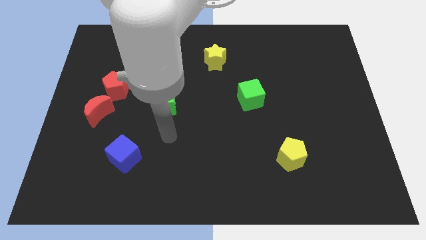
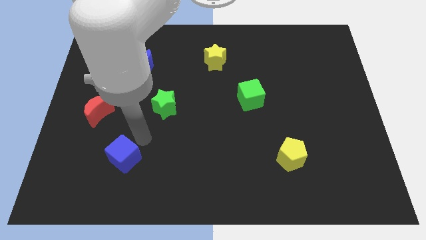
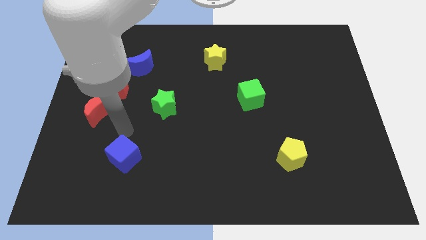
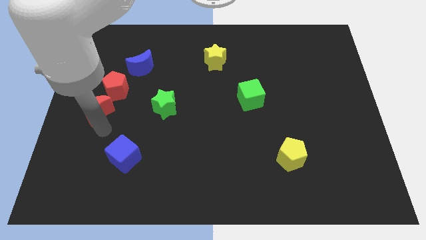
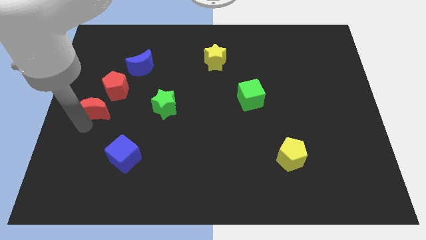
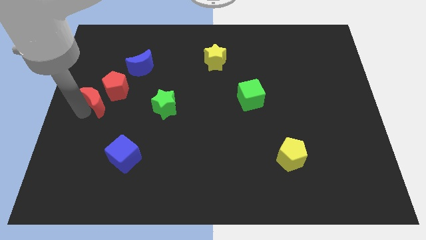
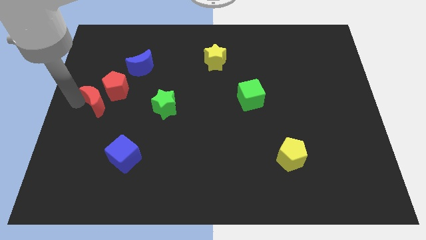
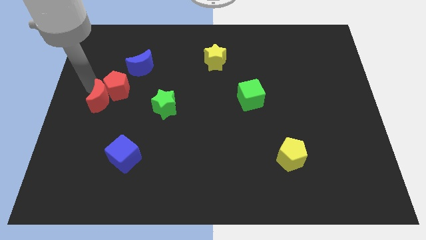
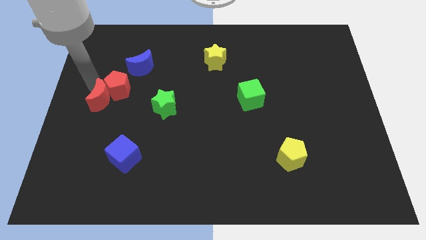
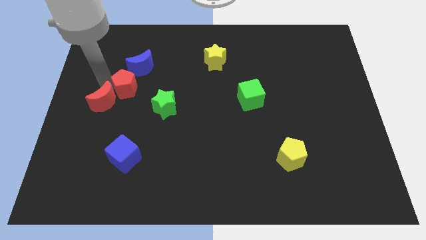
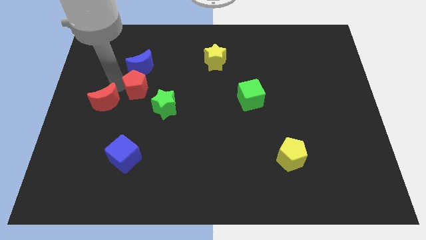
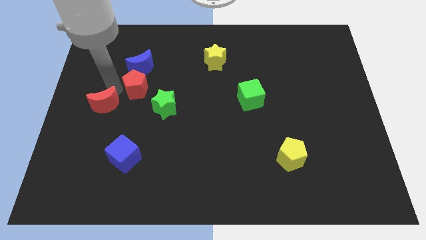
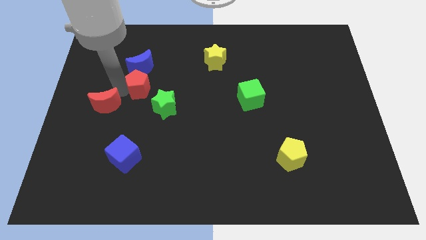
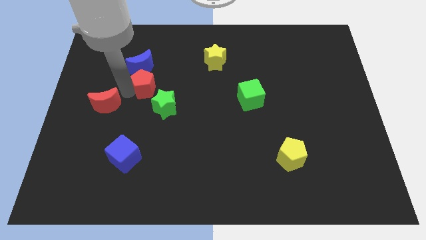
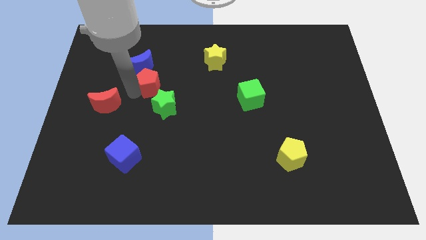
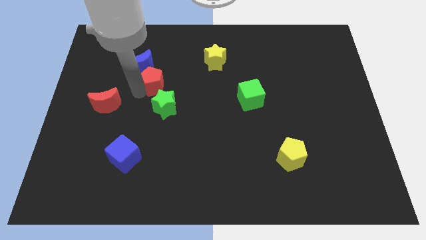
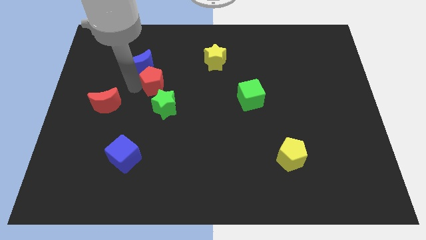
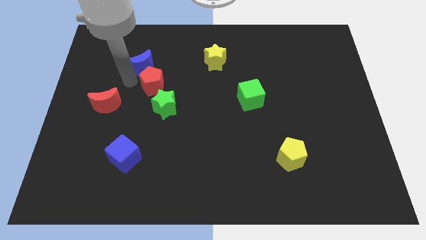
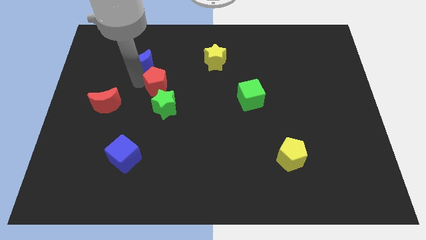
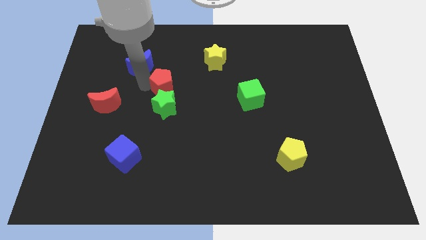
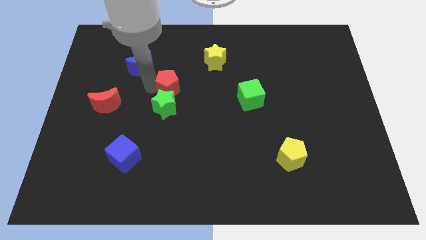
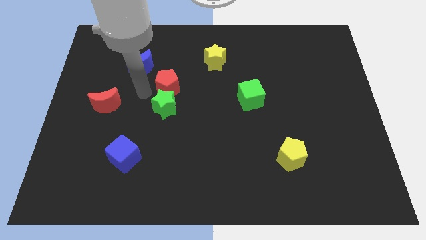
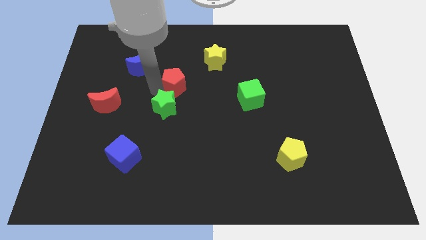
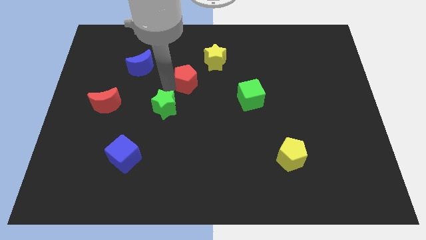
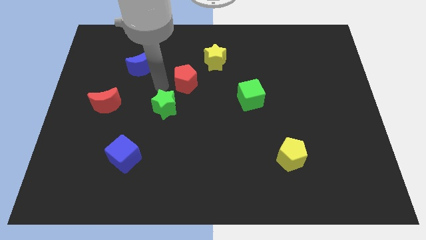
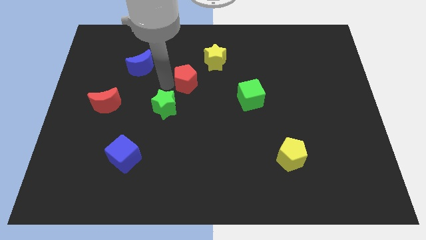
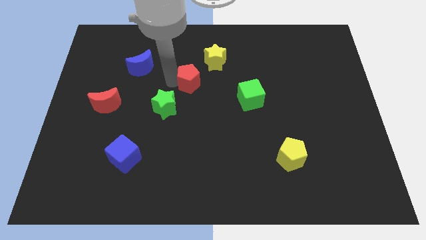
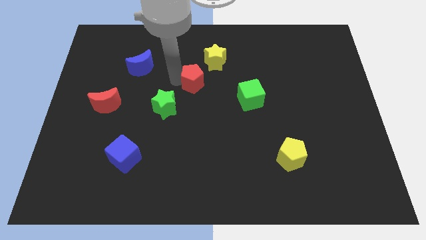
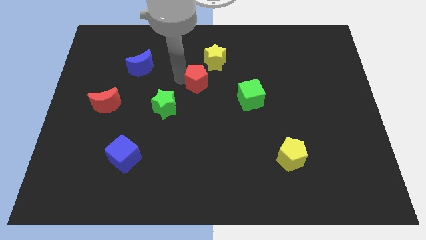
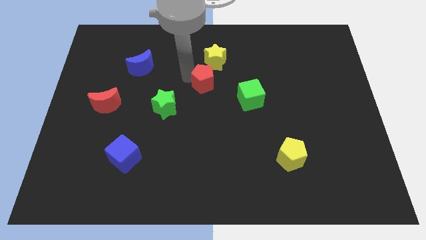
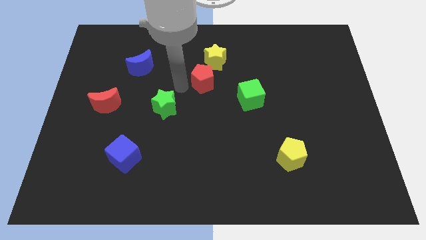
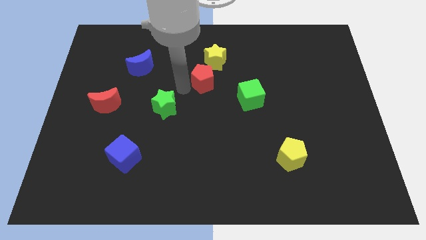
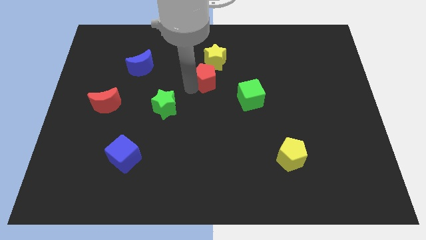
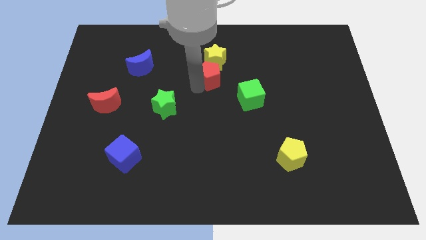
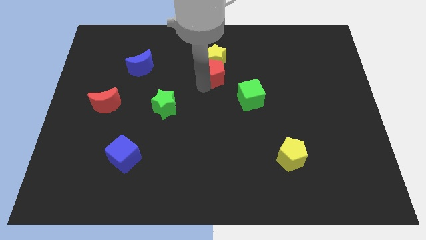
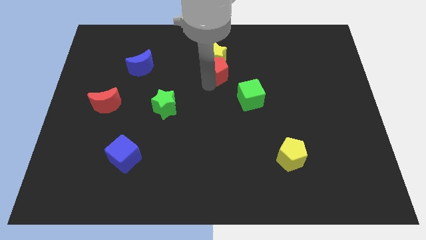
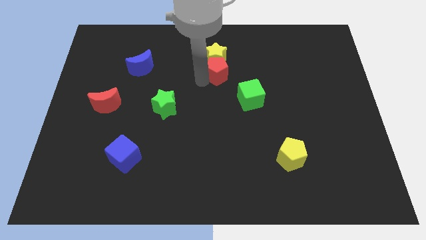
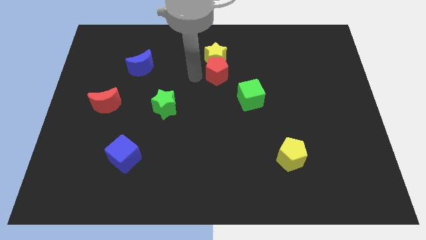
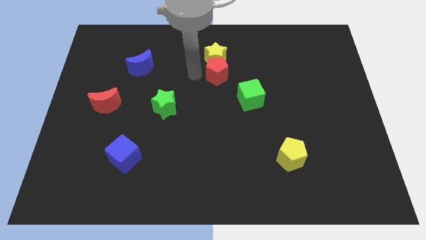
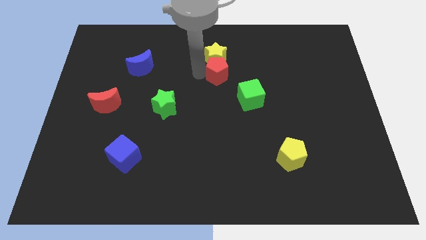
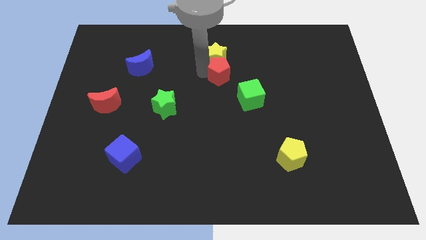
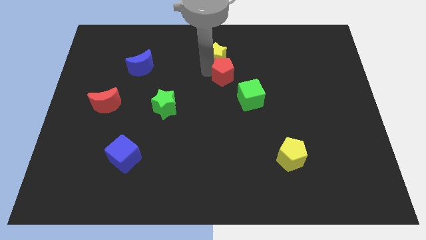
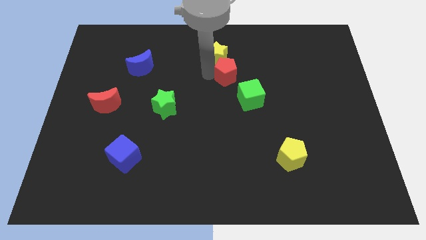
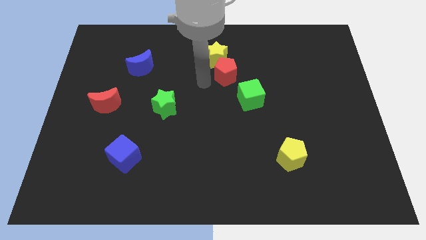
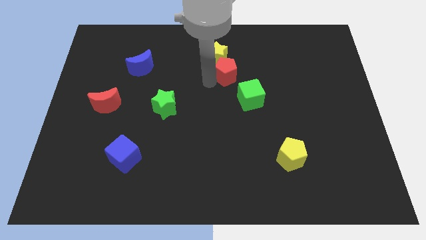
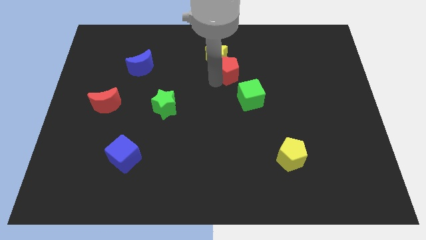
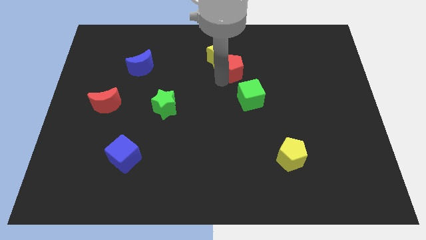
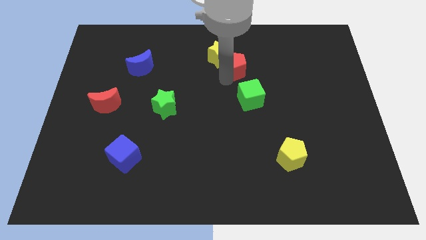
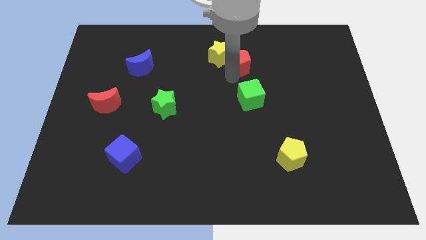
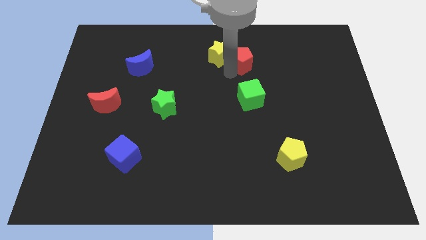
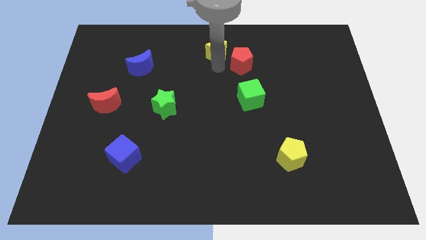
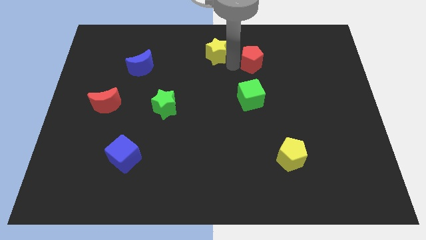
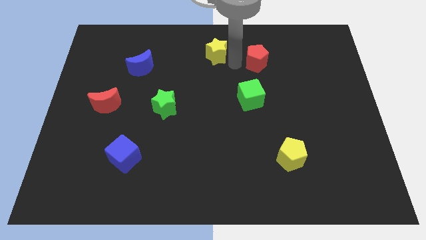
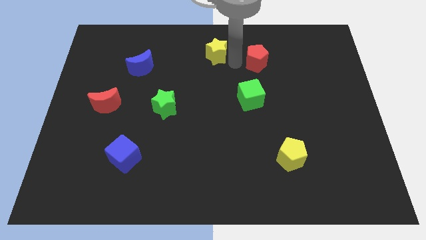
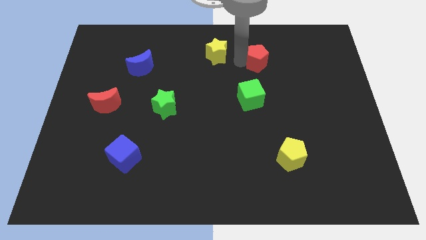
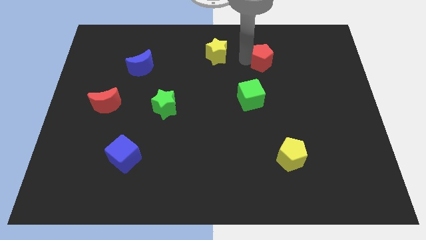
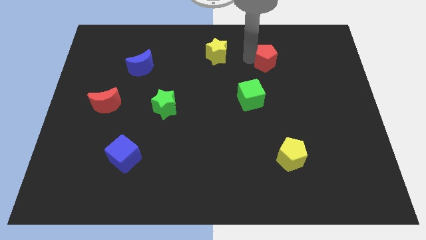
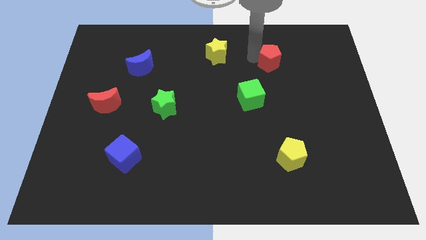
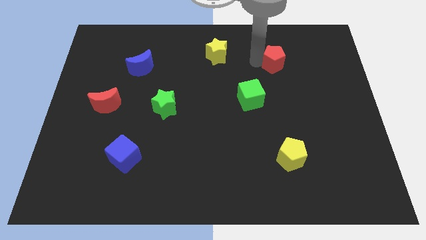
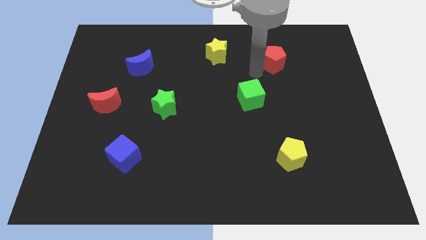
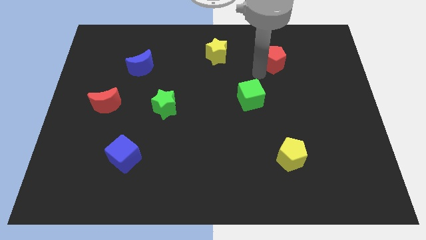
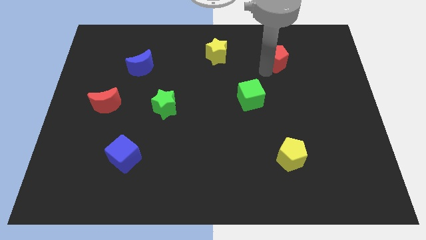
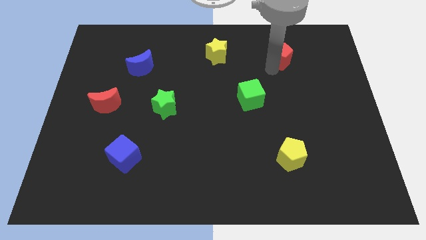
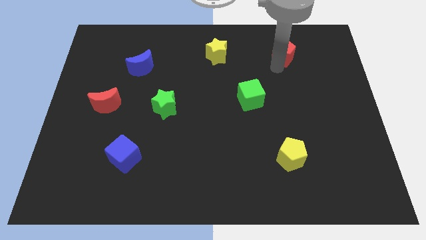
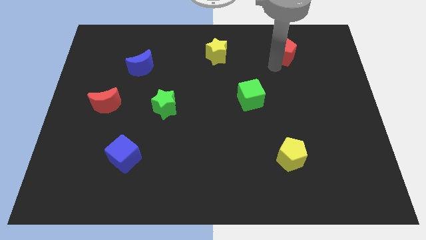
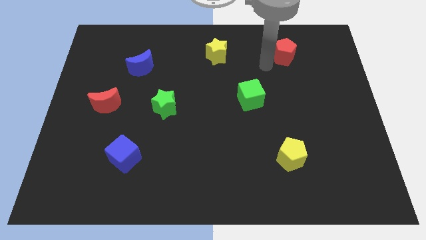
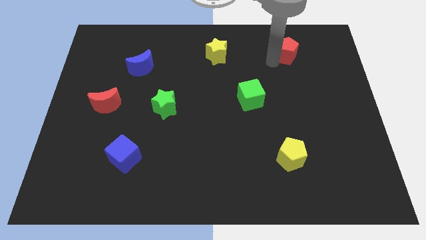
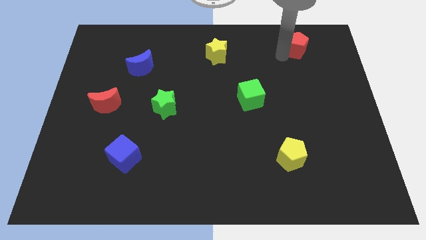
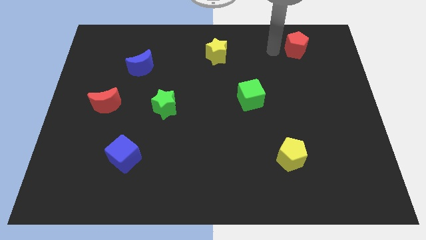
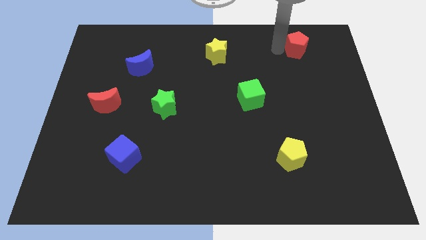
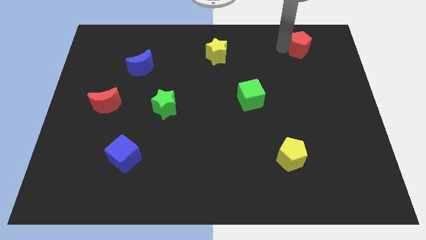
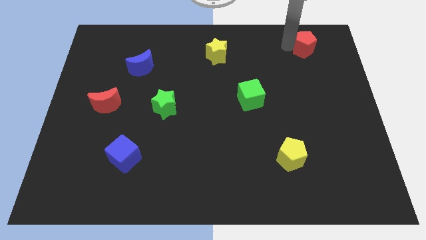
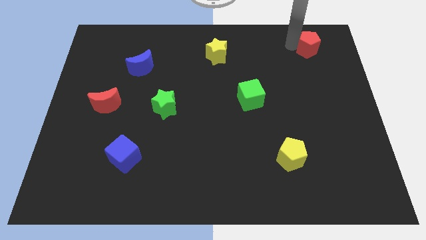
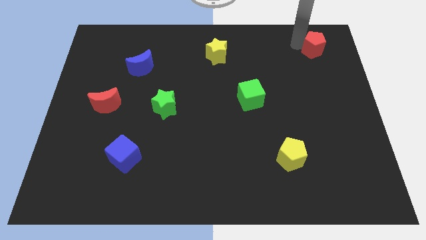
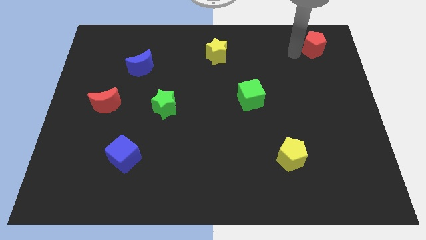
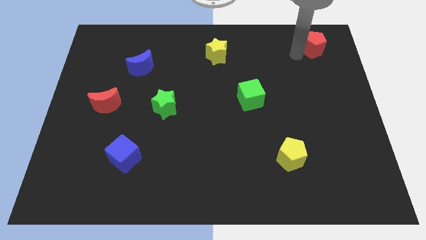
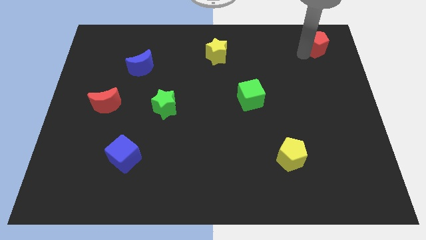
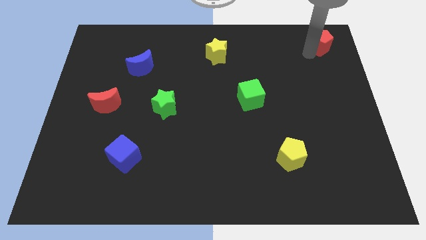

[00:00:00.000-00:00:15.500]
slide the red pentagon to the top right corner
